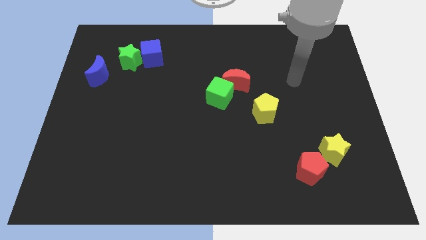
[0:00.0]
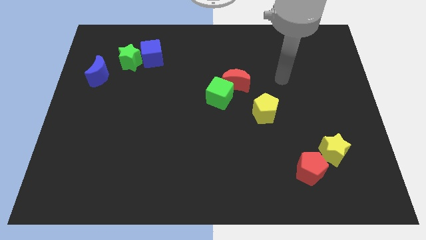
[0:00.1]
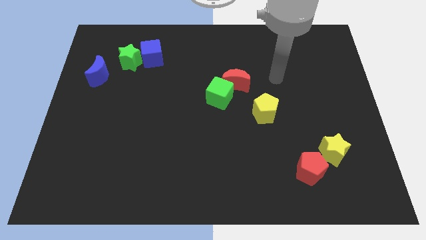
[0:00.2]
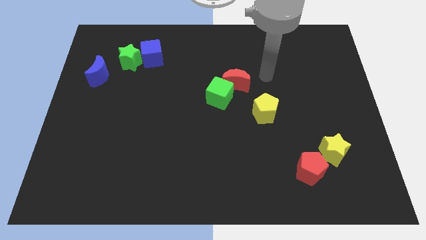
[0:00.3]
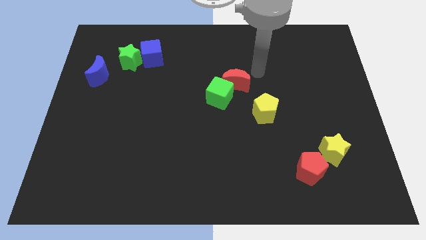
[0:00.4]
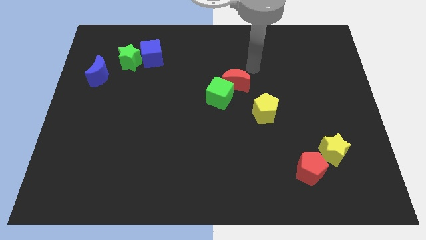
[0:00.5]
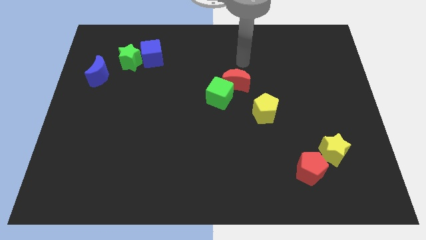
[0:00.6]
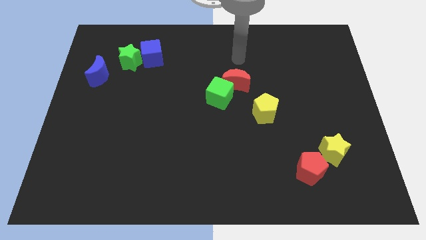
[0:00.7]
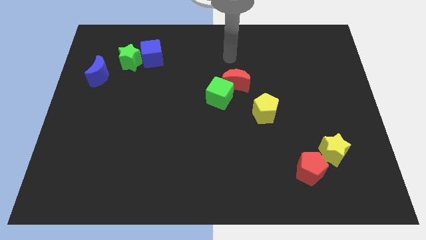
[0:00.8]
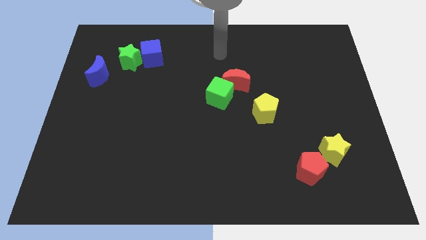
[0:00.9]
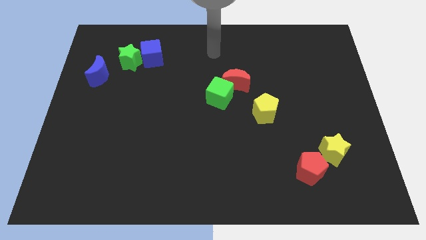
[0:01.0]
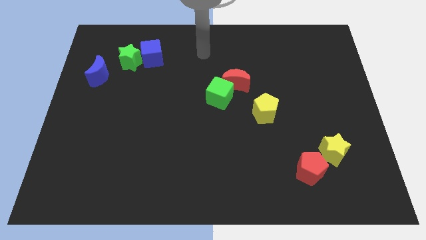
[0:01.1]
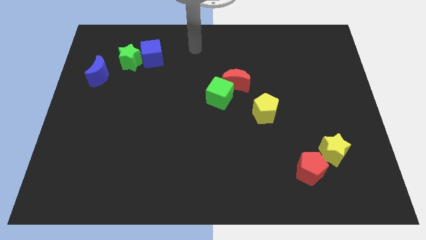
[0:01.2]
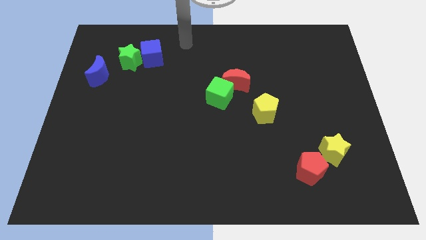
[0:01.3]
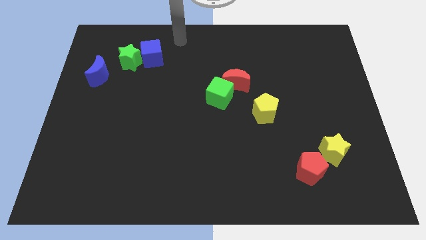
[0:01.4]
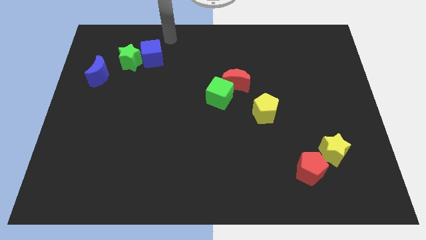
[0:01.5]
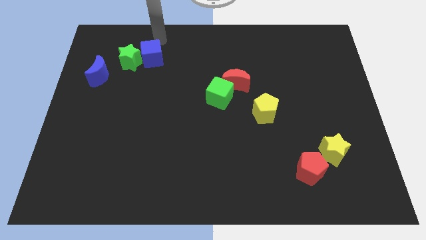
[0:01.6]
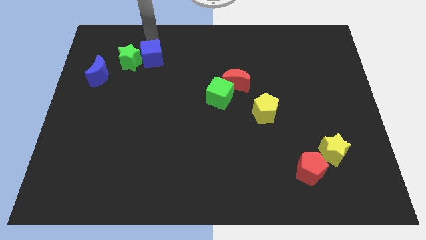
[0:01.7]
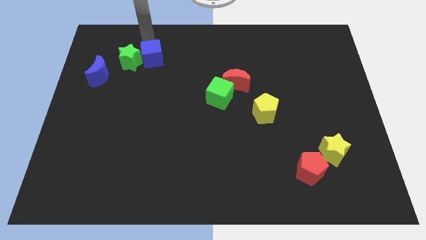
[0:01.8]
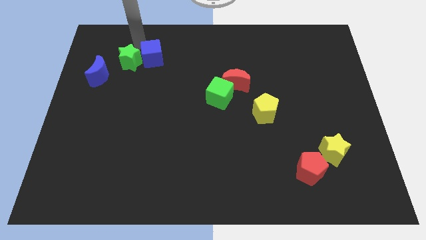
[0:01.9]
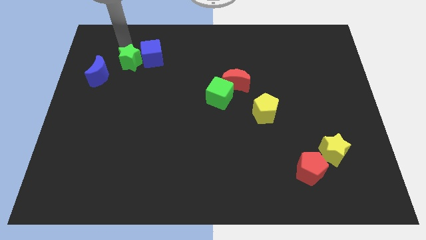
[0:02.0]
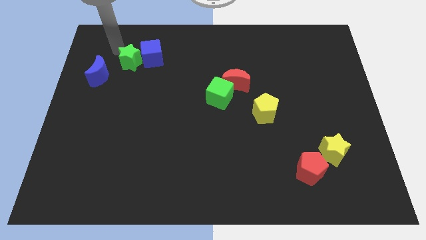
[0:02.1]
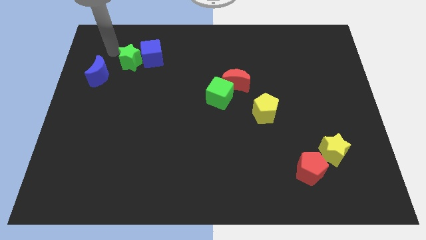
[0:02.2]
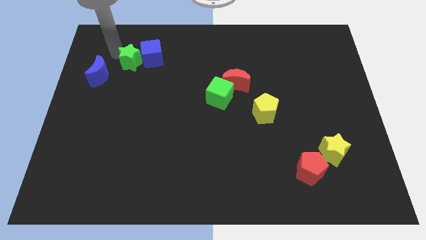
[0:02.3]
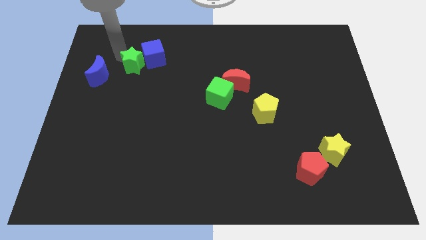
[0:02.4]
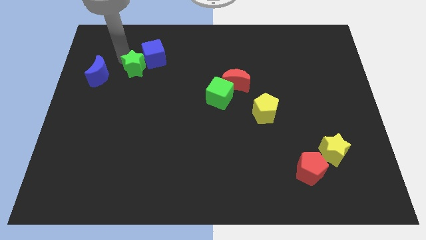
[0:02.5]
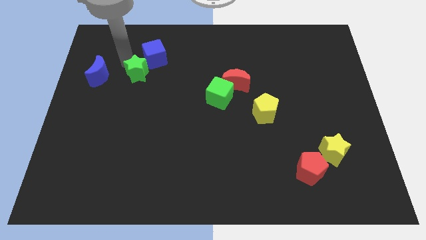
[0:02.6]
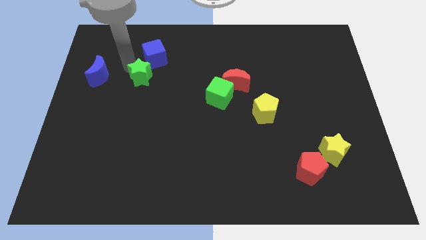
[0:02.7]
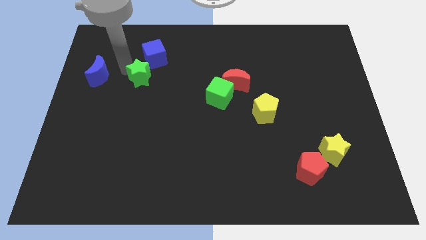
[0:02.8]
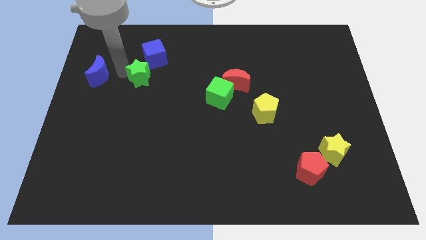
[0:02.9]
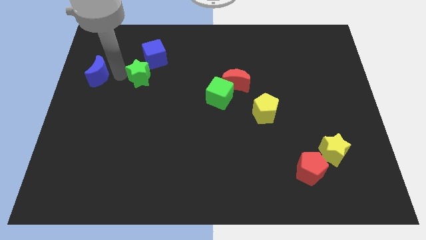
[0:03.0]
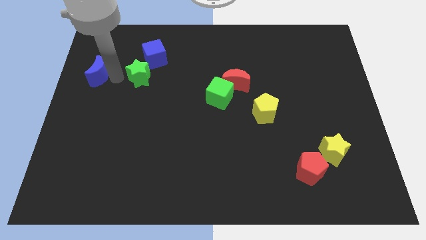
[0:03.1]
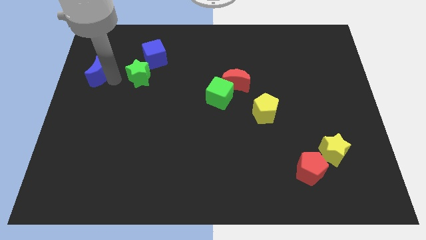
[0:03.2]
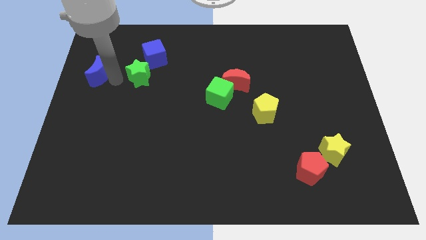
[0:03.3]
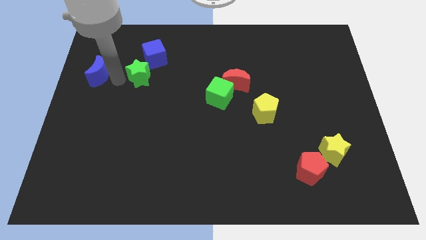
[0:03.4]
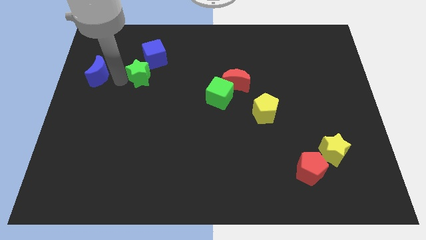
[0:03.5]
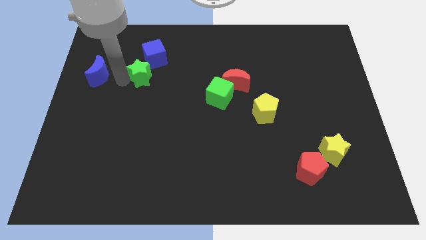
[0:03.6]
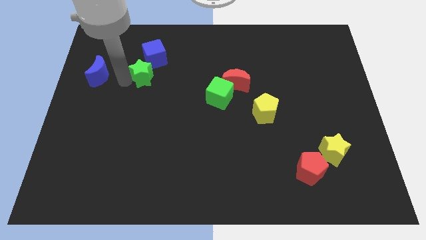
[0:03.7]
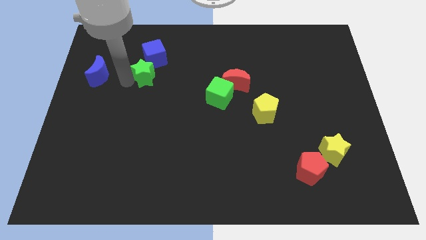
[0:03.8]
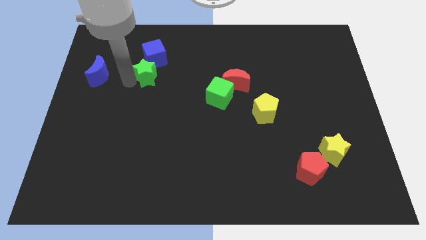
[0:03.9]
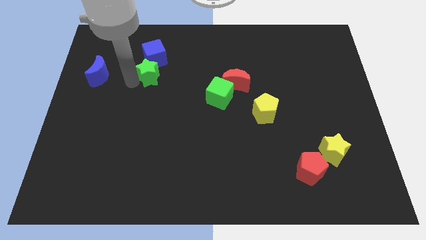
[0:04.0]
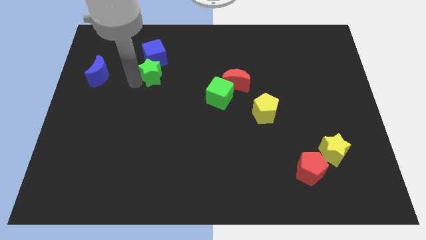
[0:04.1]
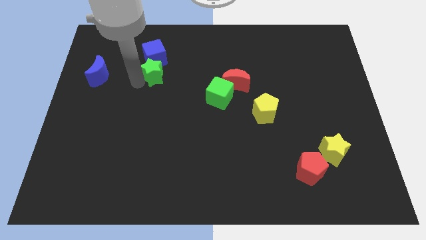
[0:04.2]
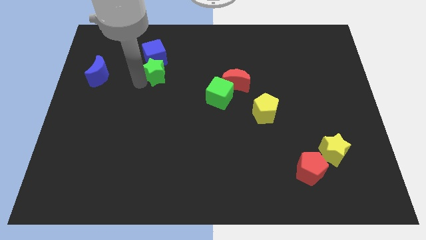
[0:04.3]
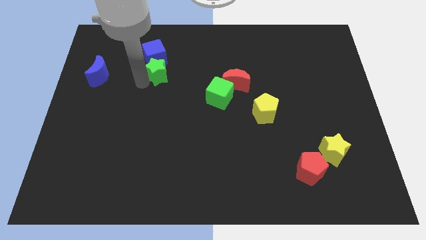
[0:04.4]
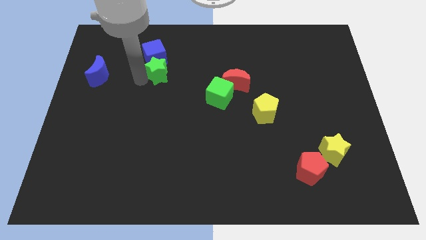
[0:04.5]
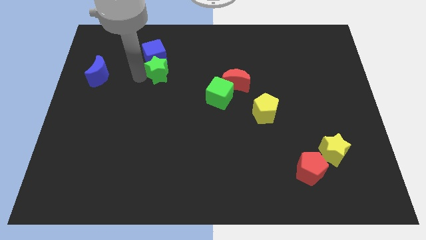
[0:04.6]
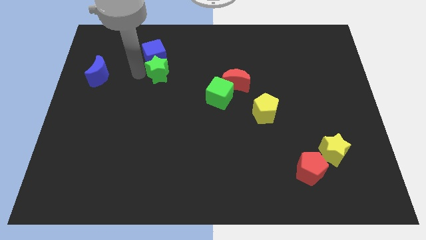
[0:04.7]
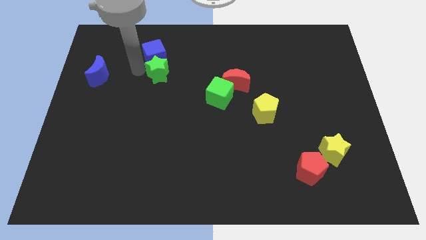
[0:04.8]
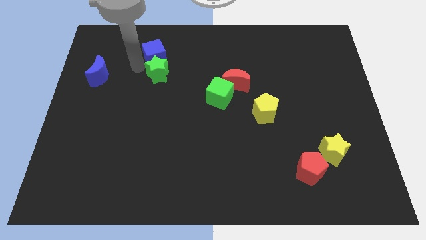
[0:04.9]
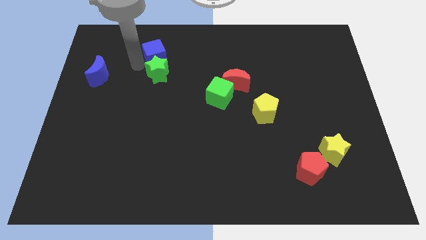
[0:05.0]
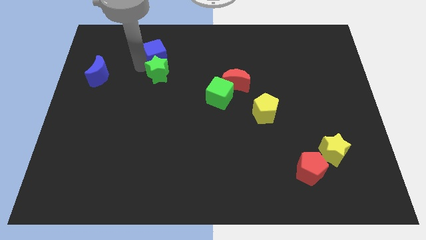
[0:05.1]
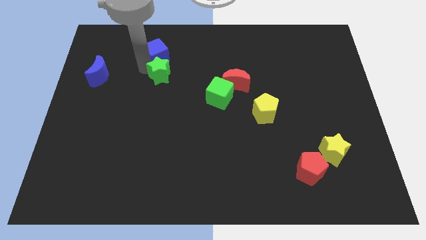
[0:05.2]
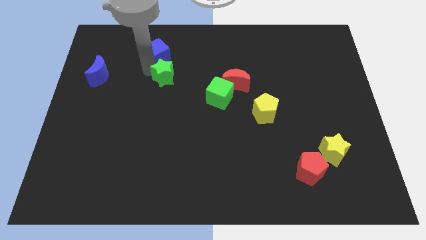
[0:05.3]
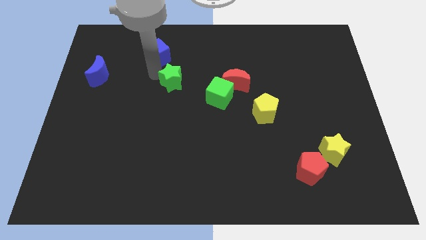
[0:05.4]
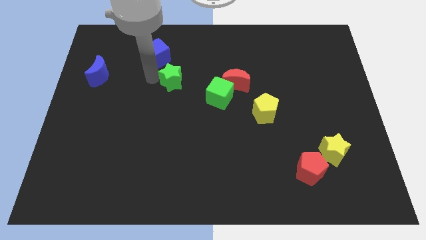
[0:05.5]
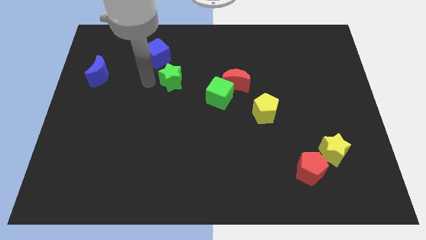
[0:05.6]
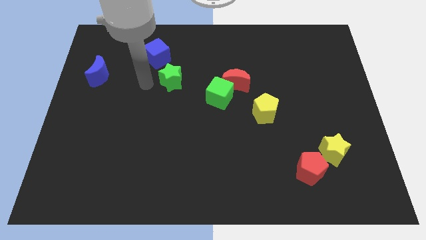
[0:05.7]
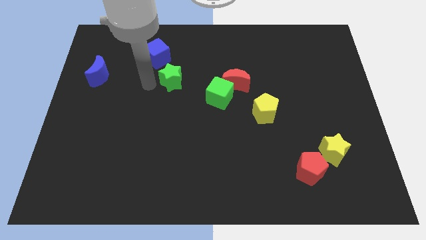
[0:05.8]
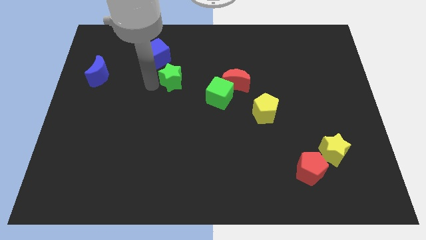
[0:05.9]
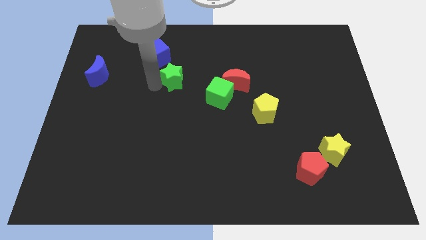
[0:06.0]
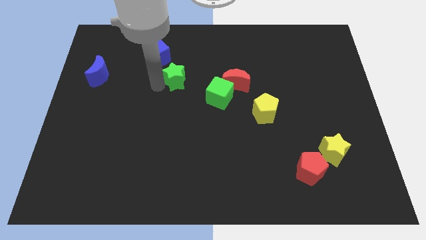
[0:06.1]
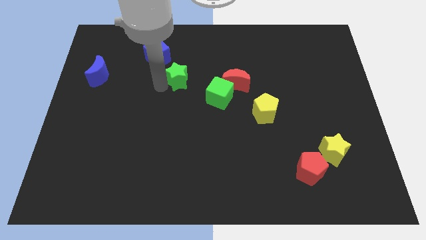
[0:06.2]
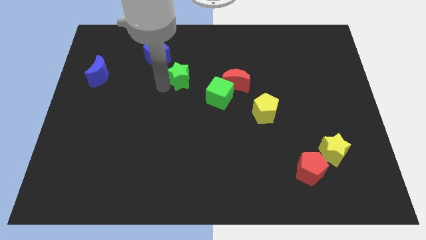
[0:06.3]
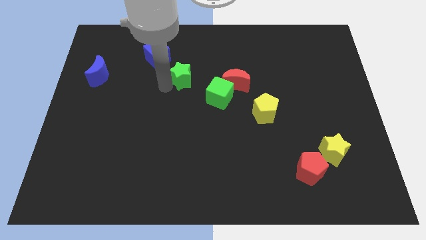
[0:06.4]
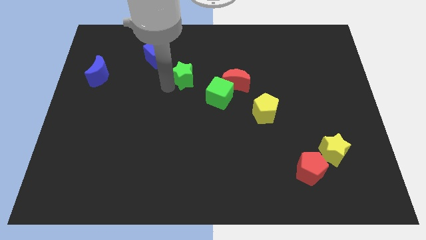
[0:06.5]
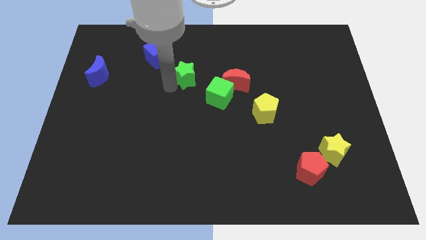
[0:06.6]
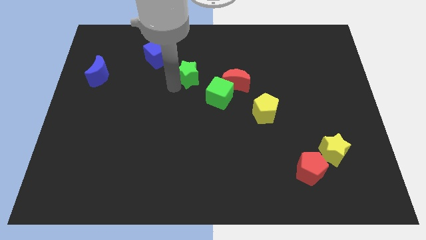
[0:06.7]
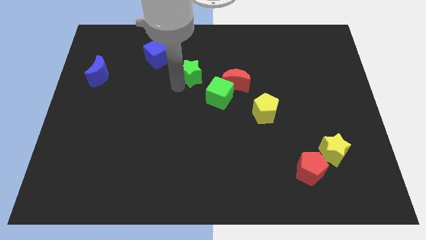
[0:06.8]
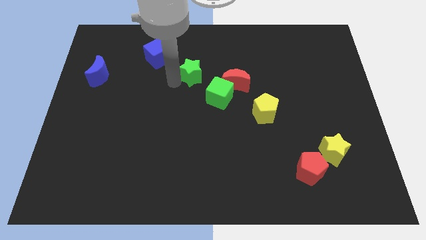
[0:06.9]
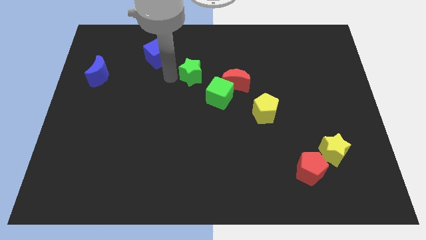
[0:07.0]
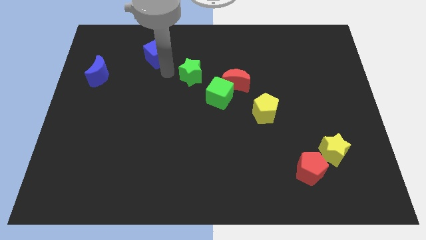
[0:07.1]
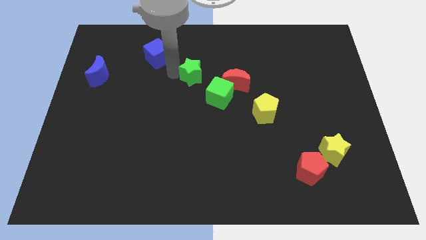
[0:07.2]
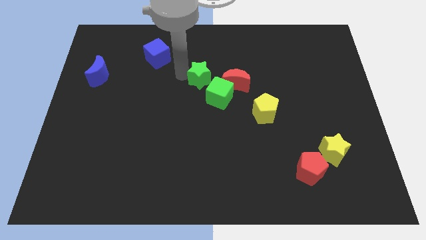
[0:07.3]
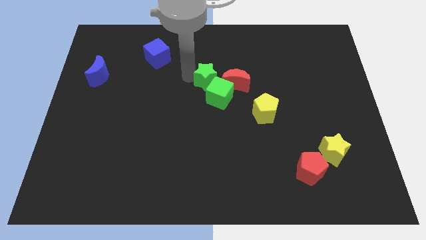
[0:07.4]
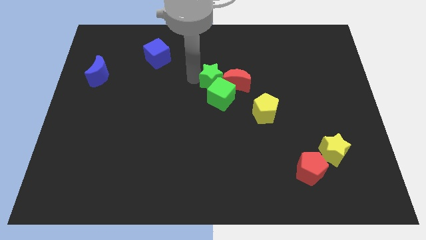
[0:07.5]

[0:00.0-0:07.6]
push the green star towards the red moon
